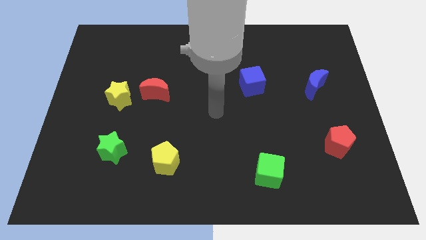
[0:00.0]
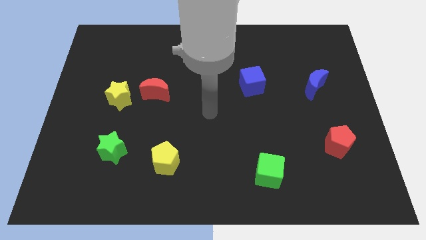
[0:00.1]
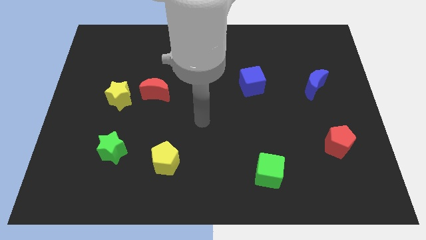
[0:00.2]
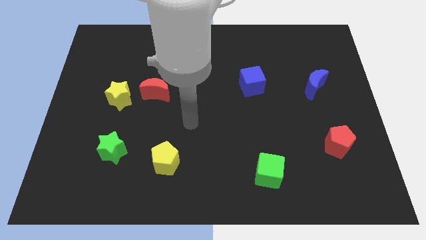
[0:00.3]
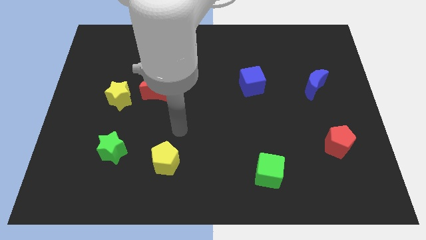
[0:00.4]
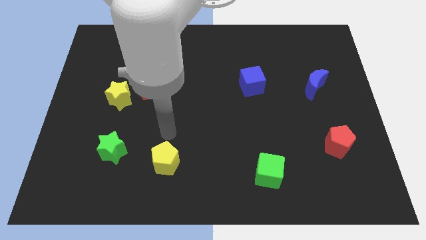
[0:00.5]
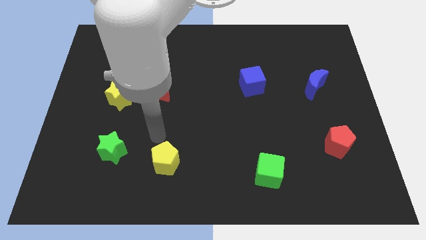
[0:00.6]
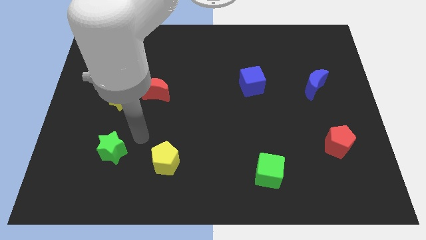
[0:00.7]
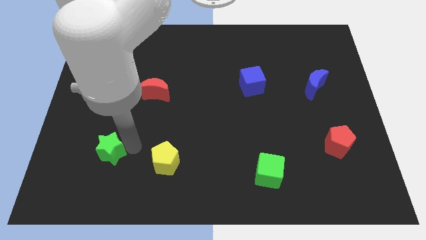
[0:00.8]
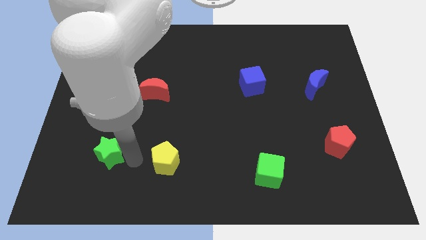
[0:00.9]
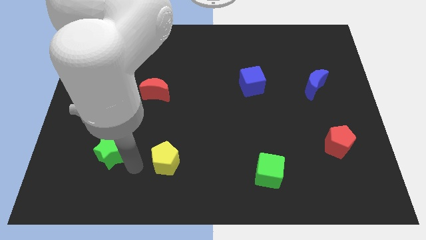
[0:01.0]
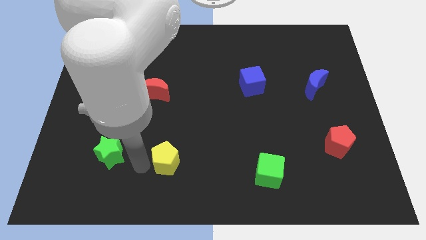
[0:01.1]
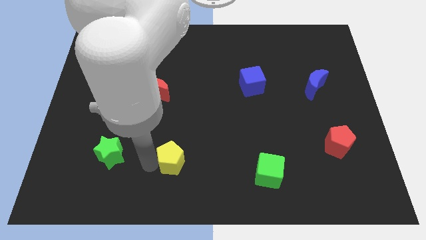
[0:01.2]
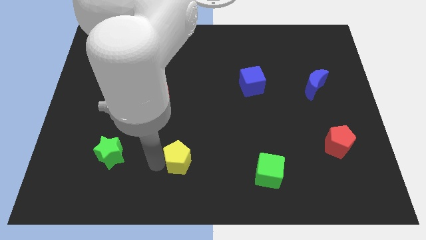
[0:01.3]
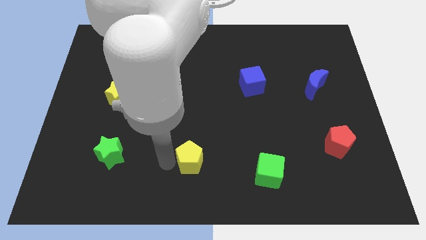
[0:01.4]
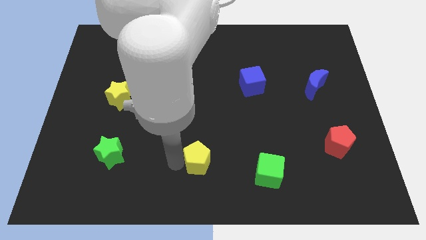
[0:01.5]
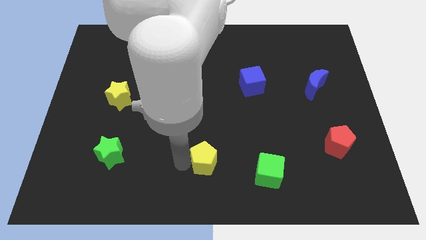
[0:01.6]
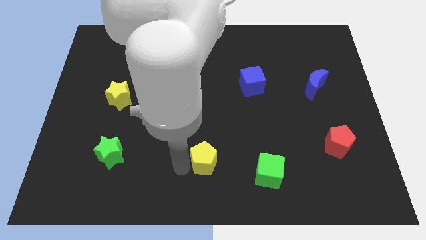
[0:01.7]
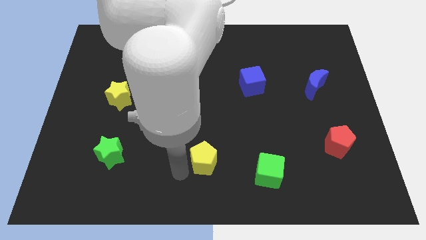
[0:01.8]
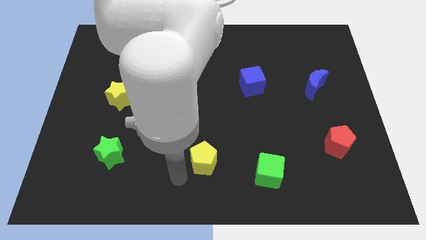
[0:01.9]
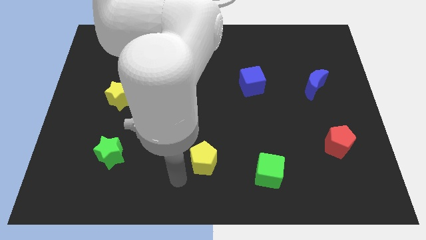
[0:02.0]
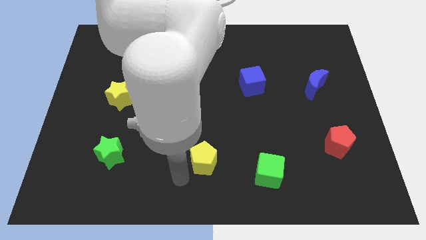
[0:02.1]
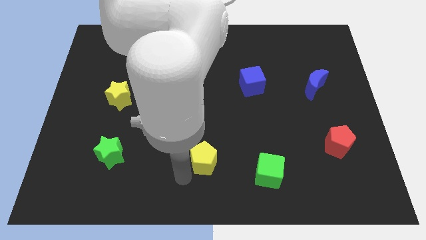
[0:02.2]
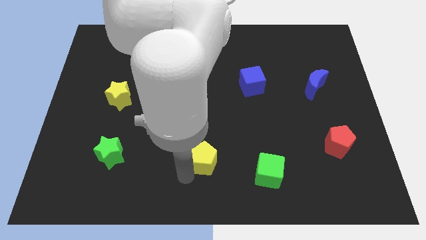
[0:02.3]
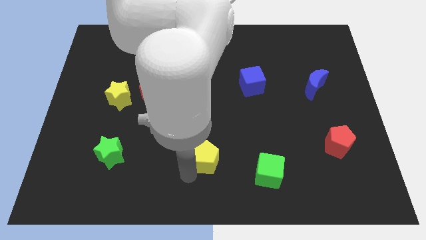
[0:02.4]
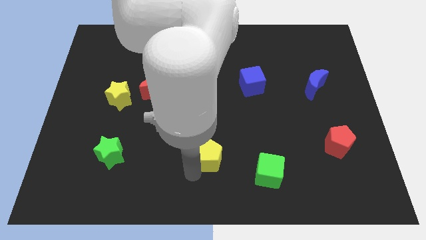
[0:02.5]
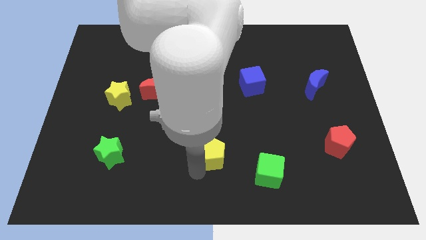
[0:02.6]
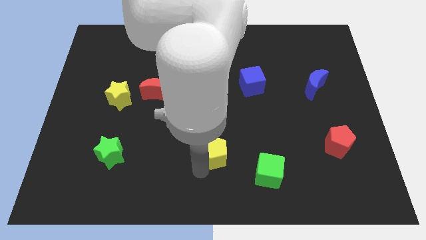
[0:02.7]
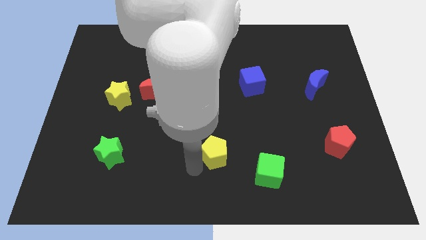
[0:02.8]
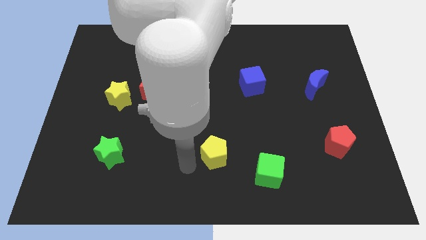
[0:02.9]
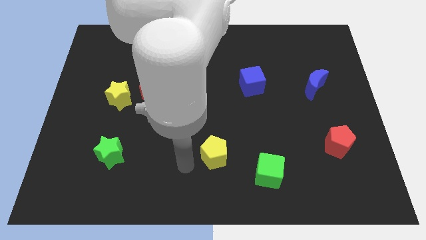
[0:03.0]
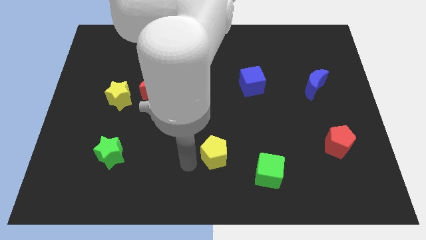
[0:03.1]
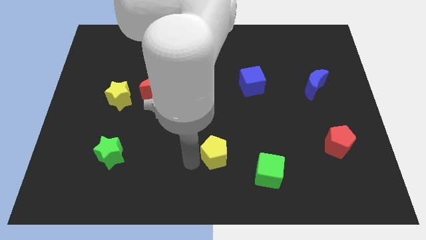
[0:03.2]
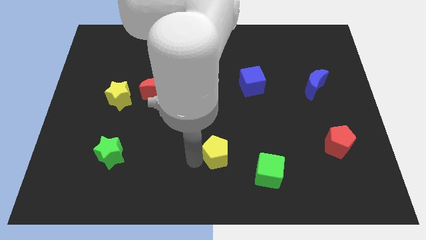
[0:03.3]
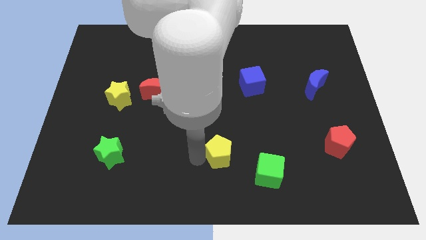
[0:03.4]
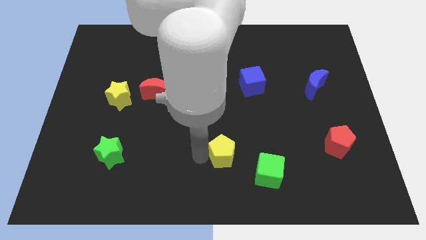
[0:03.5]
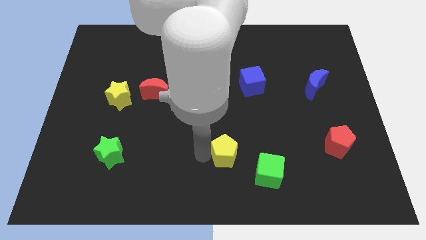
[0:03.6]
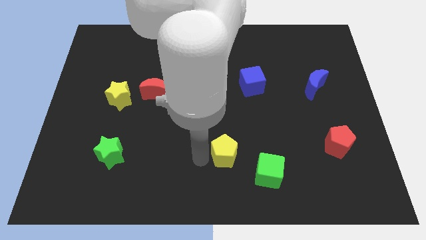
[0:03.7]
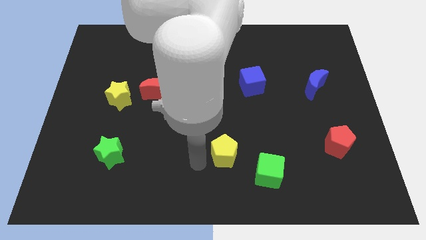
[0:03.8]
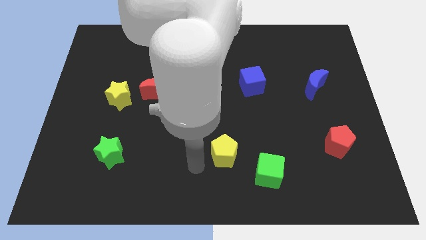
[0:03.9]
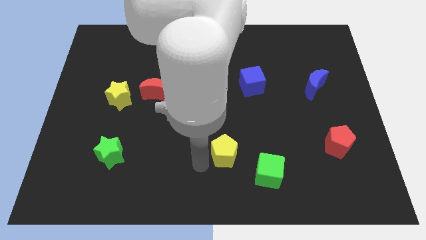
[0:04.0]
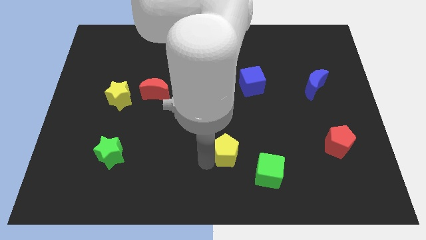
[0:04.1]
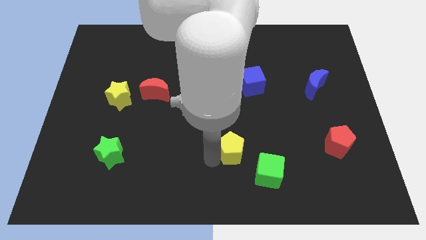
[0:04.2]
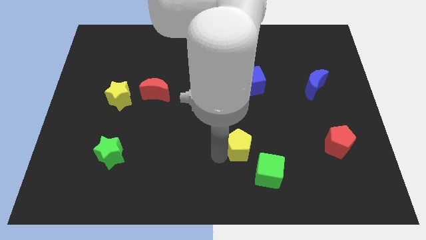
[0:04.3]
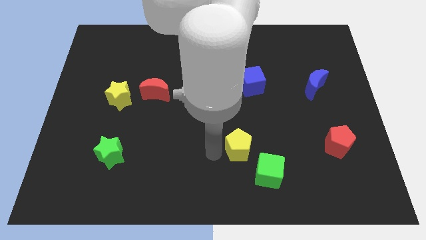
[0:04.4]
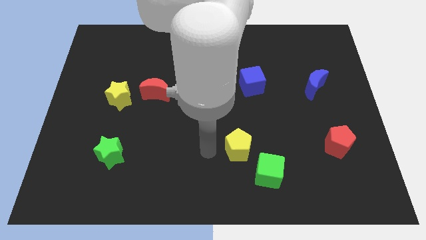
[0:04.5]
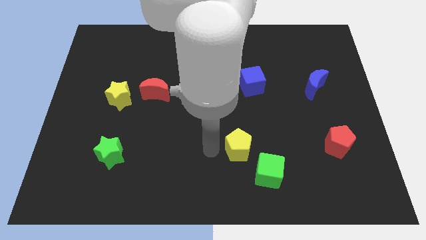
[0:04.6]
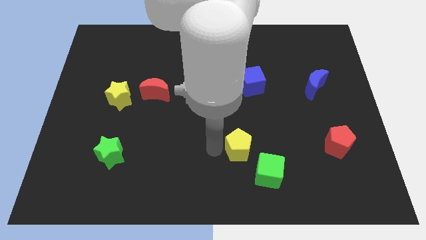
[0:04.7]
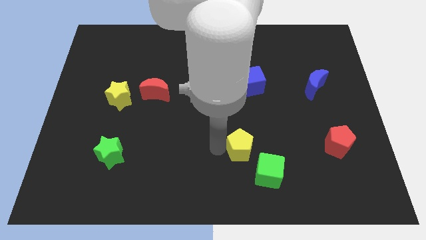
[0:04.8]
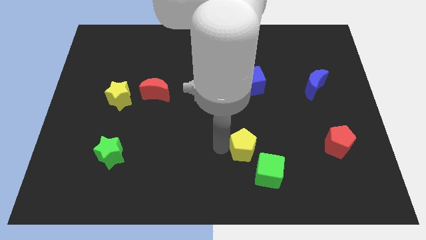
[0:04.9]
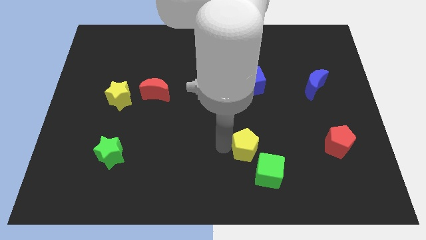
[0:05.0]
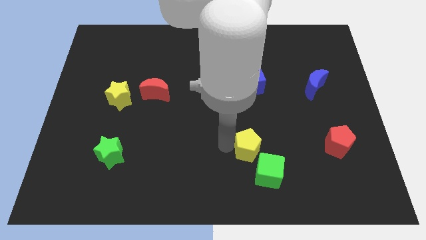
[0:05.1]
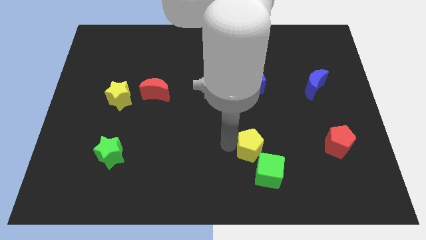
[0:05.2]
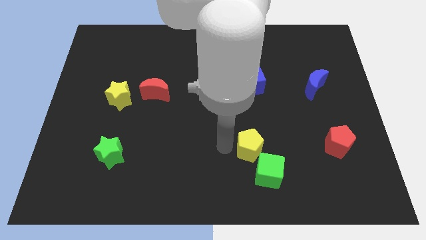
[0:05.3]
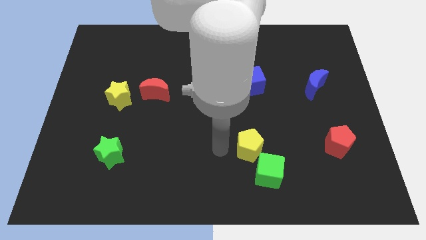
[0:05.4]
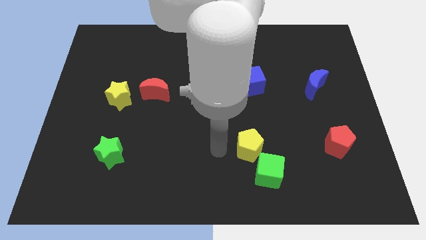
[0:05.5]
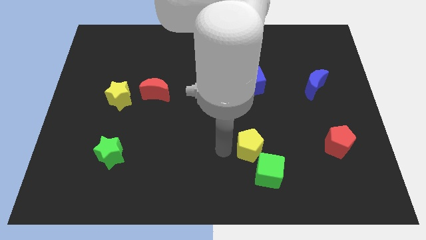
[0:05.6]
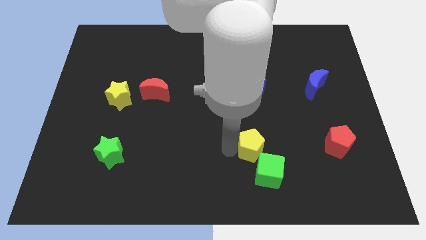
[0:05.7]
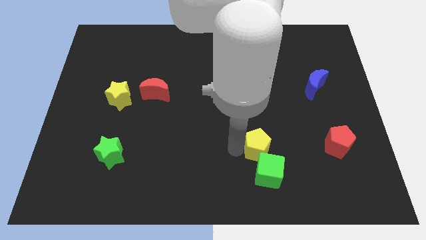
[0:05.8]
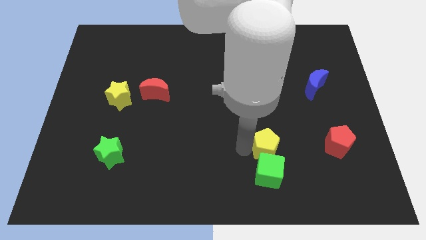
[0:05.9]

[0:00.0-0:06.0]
move the yellow pentagon left of the red pentagon

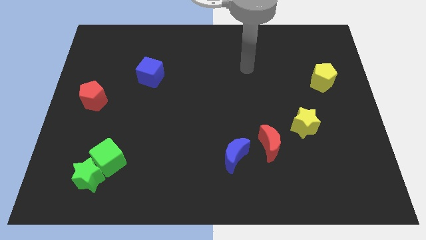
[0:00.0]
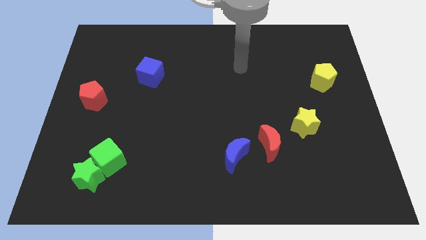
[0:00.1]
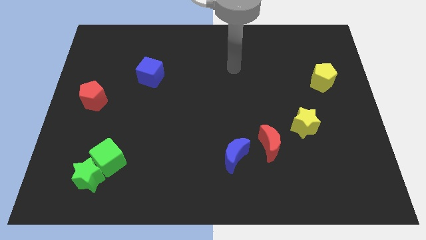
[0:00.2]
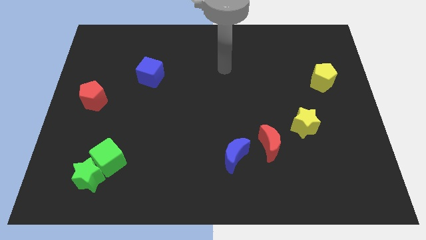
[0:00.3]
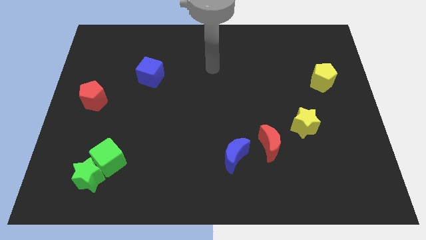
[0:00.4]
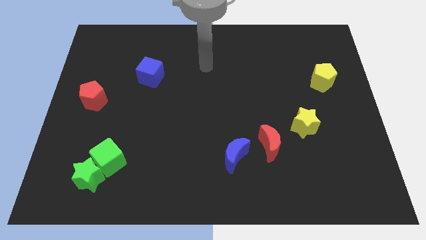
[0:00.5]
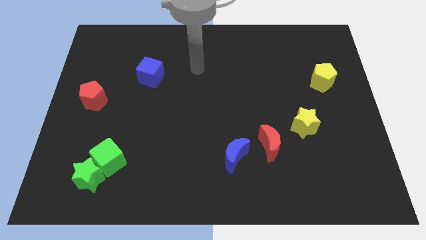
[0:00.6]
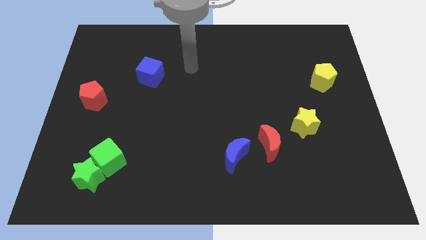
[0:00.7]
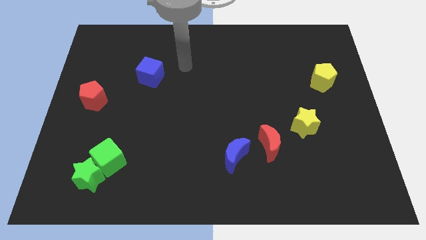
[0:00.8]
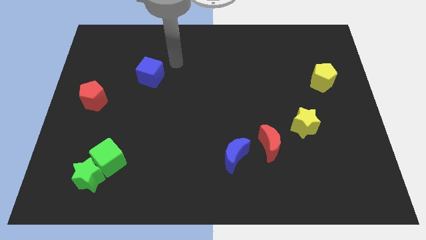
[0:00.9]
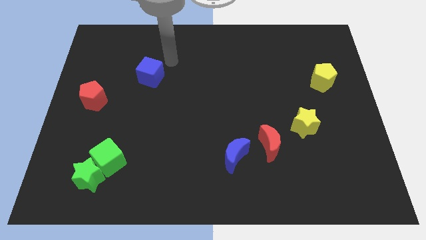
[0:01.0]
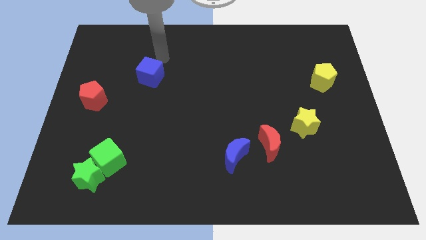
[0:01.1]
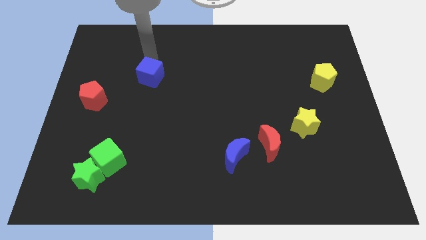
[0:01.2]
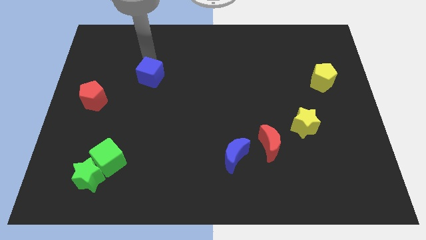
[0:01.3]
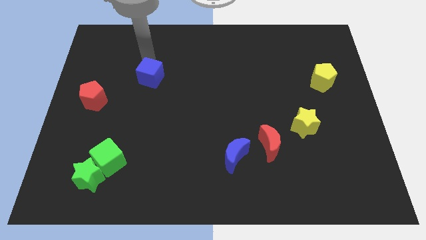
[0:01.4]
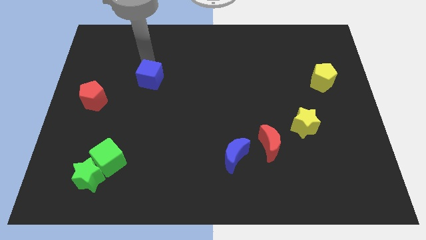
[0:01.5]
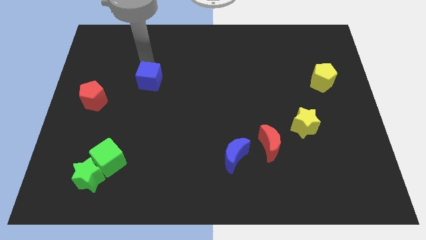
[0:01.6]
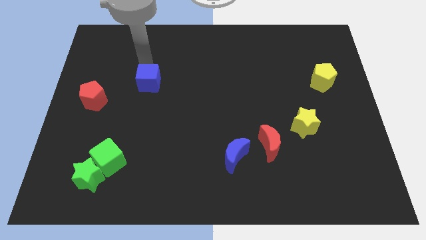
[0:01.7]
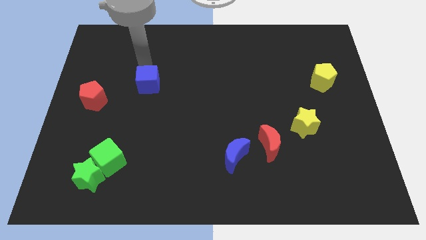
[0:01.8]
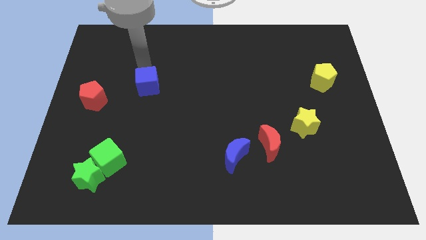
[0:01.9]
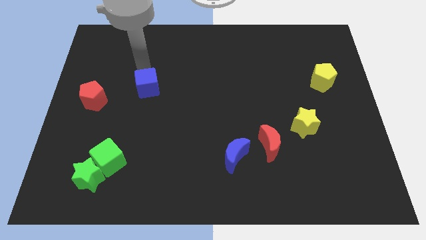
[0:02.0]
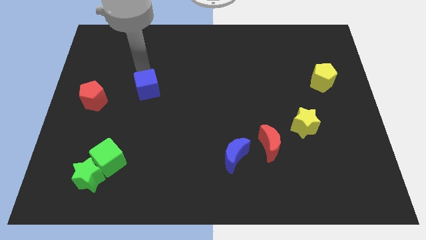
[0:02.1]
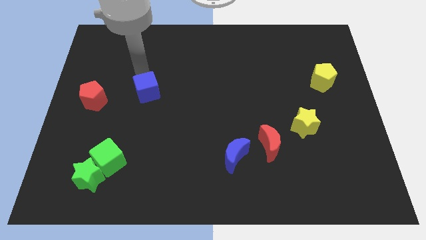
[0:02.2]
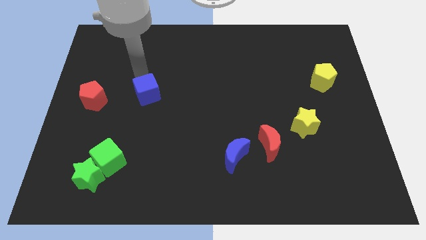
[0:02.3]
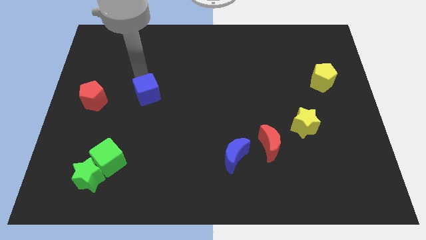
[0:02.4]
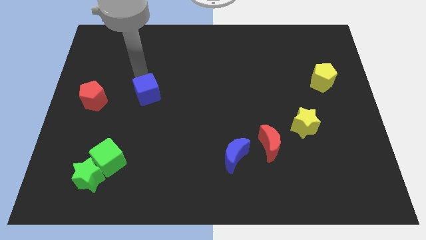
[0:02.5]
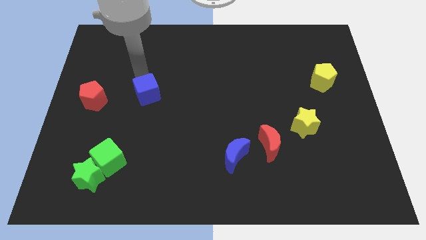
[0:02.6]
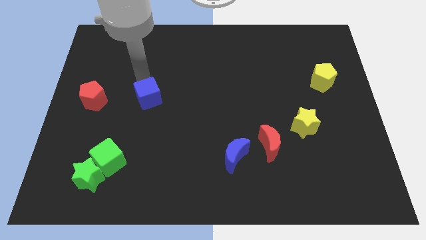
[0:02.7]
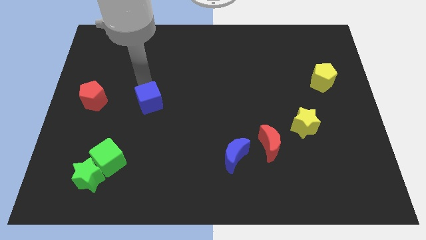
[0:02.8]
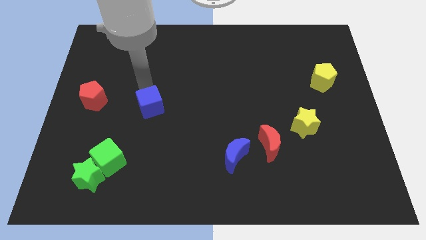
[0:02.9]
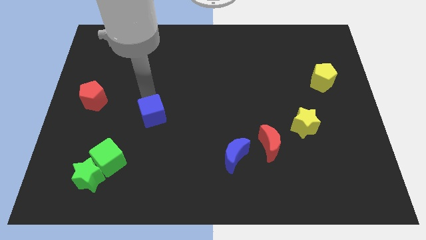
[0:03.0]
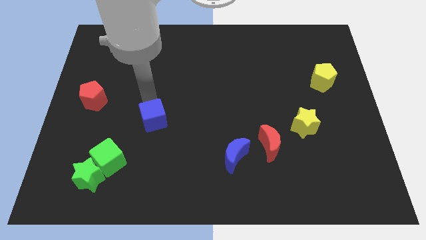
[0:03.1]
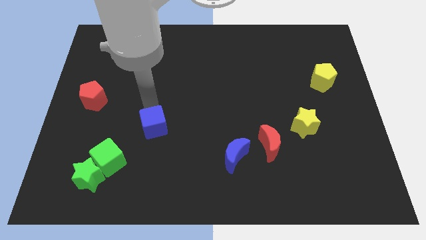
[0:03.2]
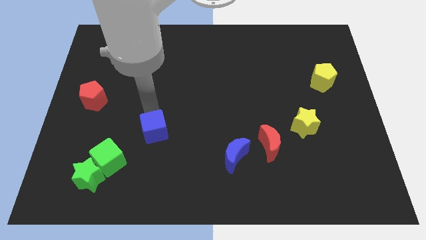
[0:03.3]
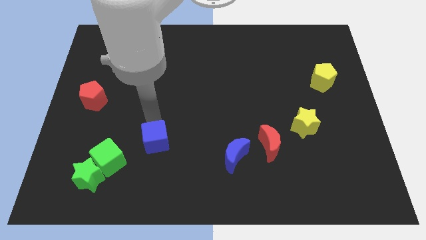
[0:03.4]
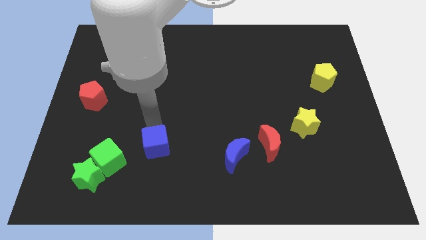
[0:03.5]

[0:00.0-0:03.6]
push the blue cube to the right of the green cube
